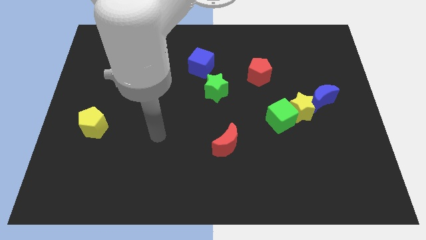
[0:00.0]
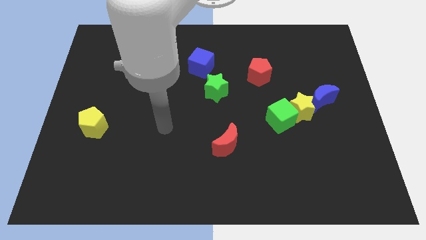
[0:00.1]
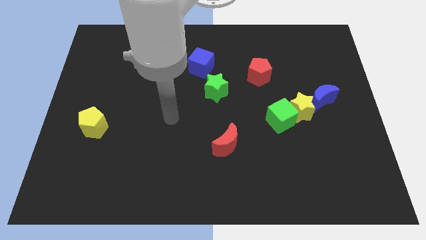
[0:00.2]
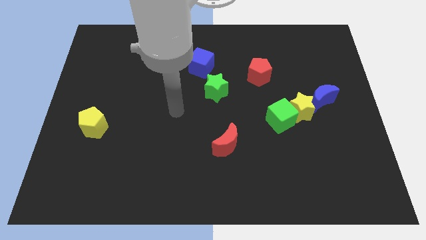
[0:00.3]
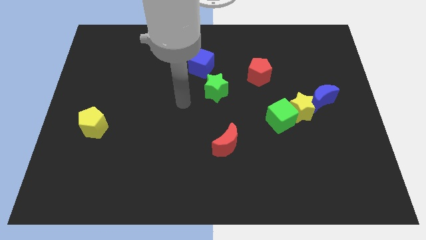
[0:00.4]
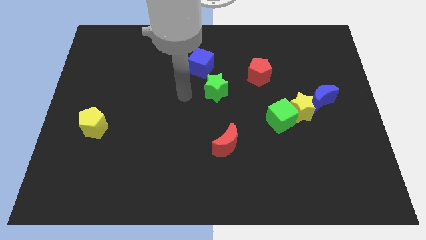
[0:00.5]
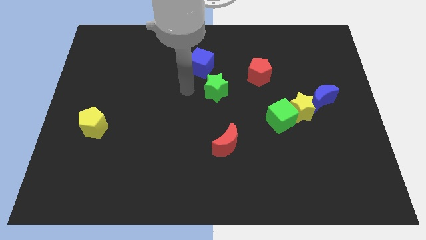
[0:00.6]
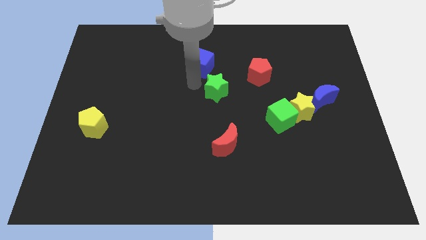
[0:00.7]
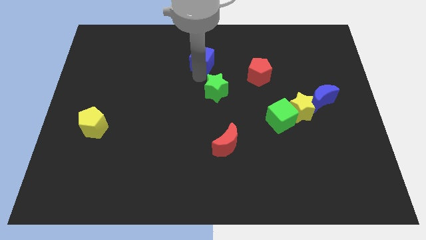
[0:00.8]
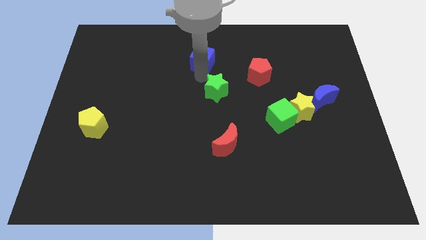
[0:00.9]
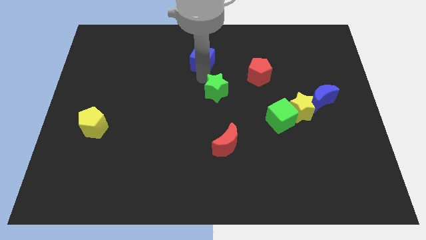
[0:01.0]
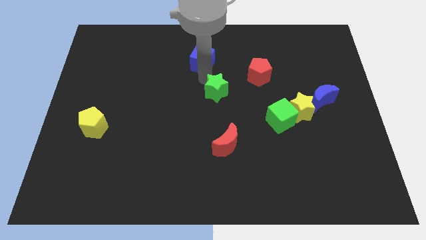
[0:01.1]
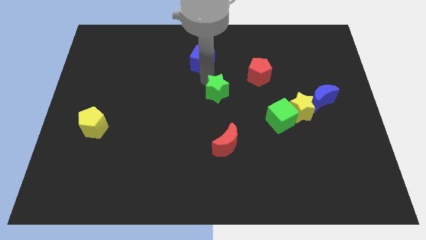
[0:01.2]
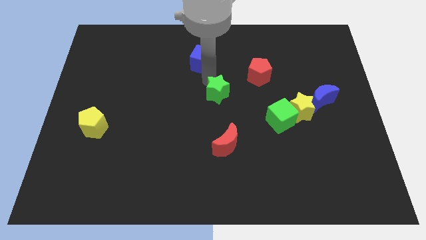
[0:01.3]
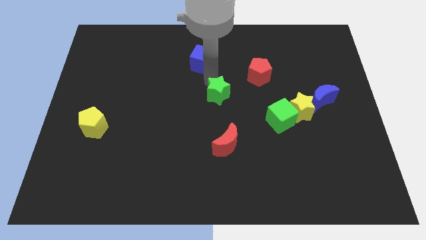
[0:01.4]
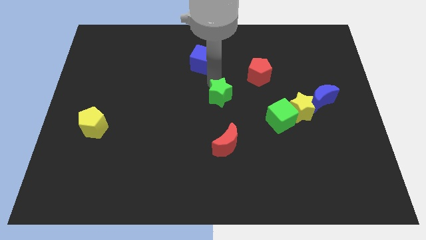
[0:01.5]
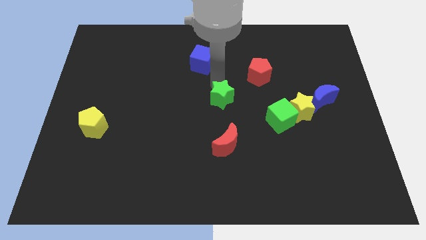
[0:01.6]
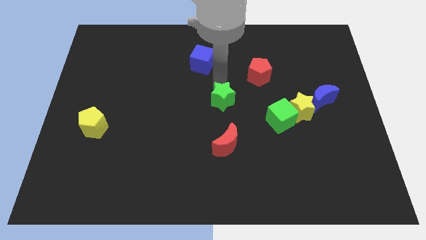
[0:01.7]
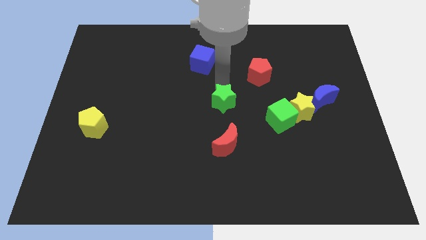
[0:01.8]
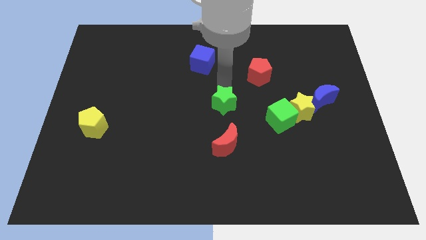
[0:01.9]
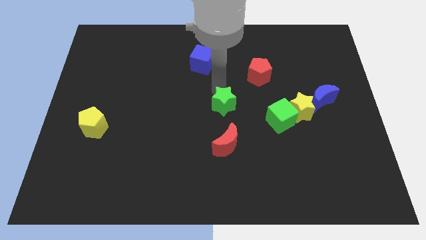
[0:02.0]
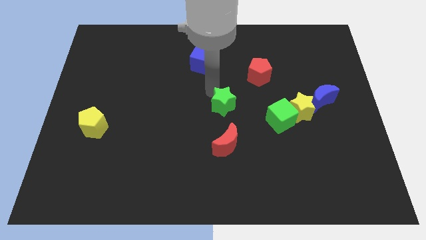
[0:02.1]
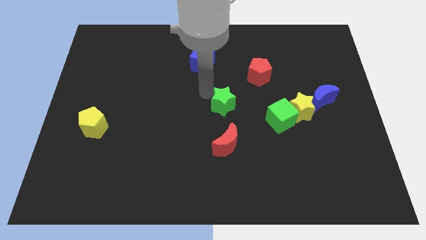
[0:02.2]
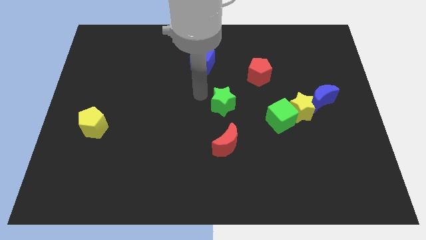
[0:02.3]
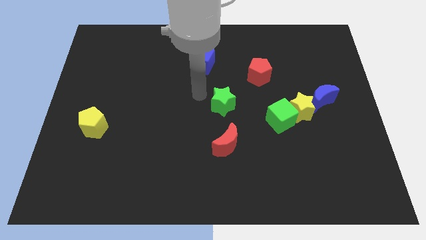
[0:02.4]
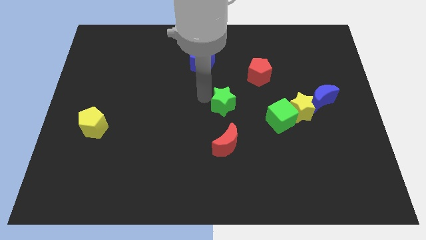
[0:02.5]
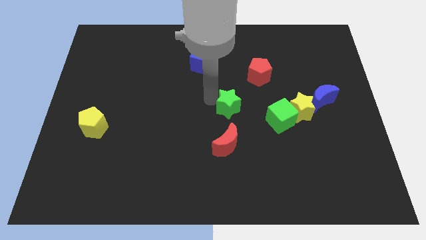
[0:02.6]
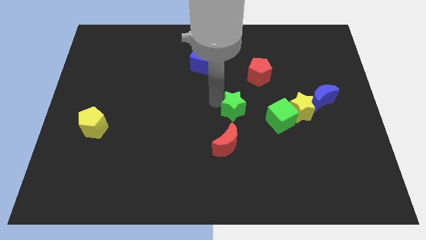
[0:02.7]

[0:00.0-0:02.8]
slightly push the green star downwards and to the right

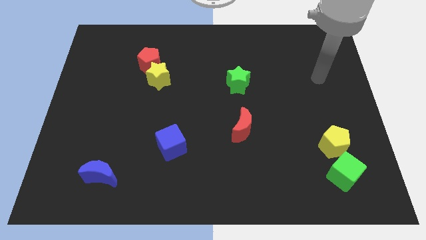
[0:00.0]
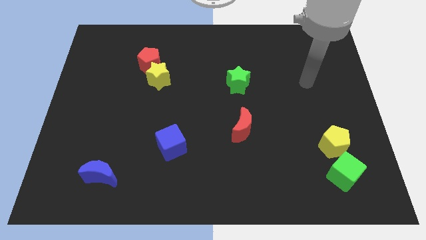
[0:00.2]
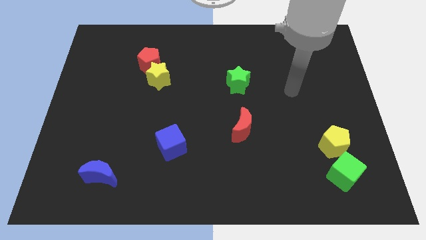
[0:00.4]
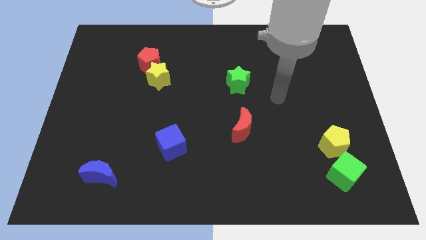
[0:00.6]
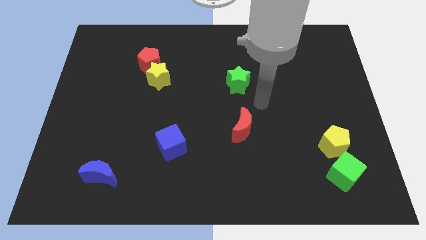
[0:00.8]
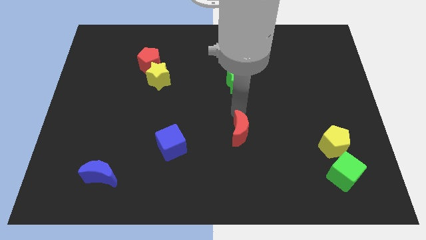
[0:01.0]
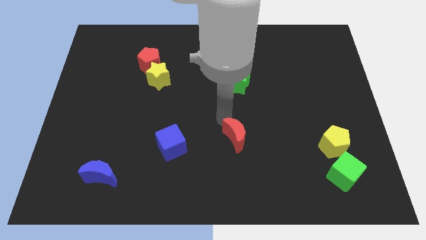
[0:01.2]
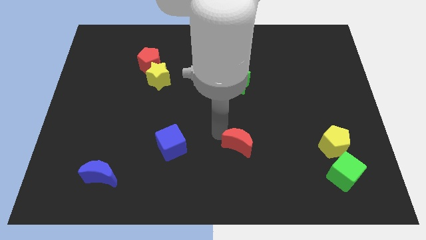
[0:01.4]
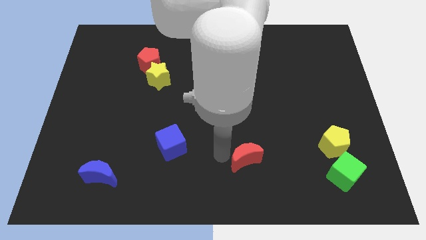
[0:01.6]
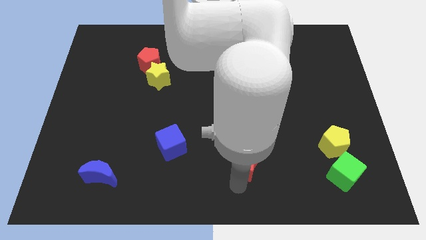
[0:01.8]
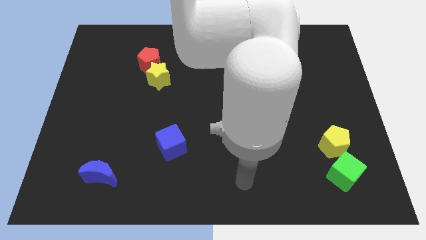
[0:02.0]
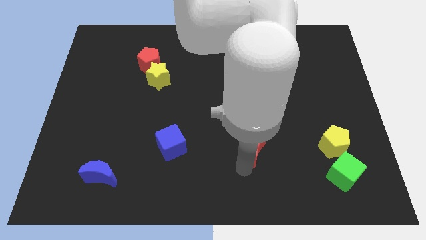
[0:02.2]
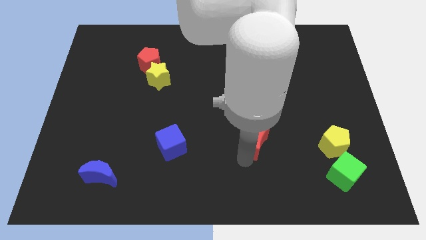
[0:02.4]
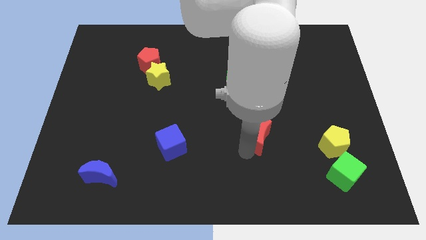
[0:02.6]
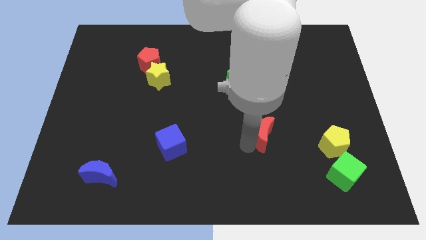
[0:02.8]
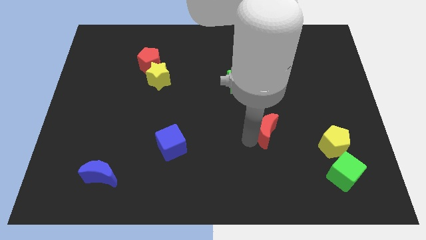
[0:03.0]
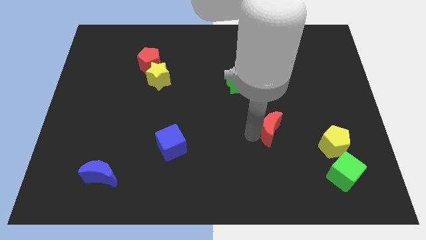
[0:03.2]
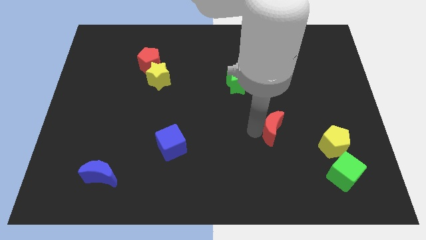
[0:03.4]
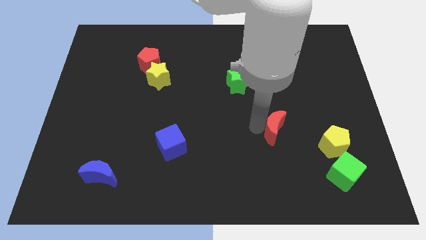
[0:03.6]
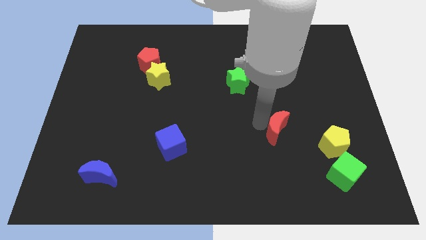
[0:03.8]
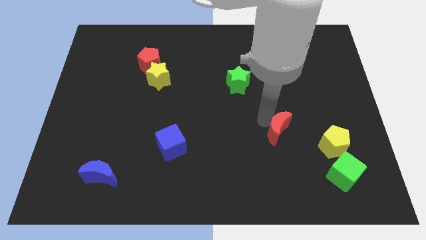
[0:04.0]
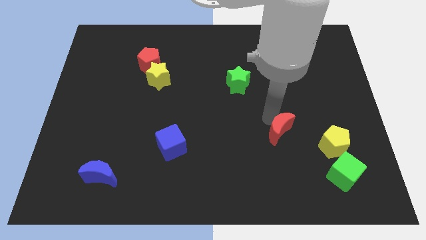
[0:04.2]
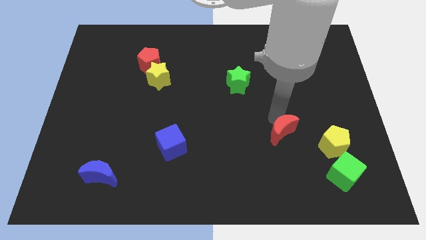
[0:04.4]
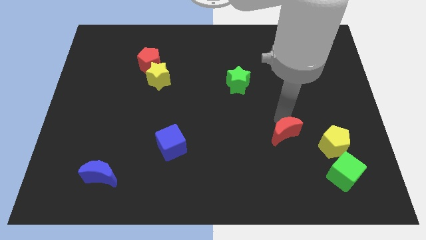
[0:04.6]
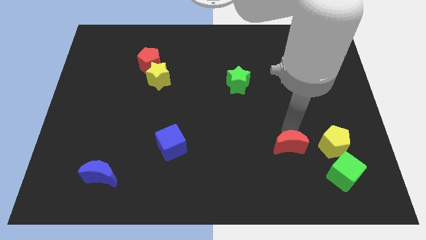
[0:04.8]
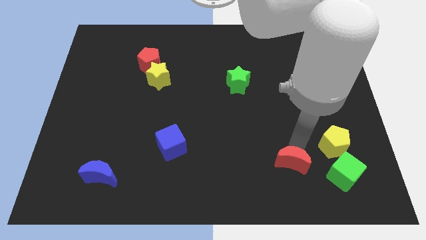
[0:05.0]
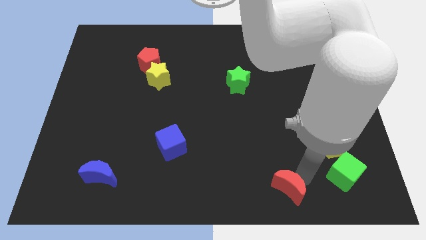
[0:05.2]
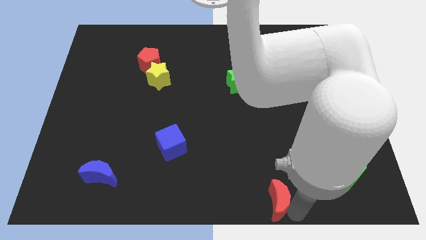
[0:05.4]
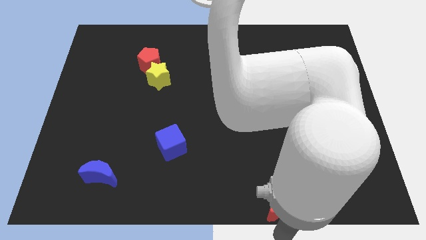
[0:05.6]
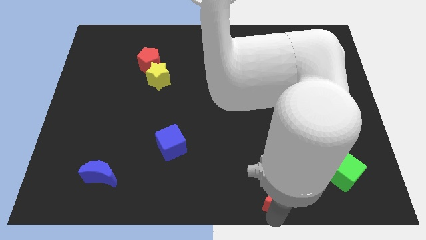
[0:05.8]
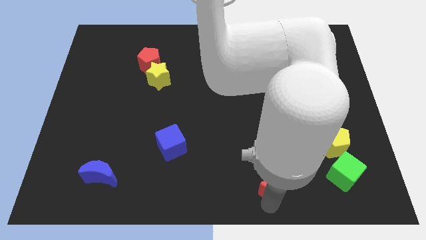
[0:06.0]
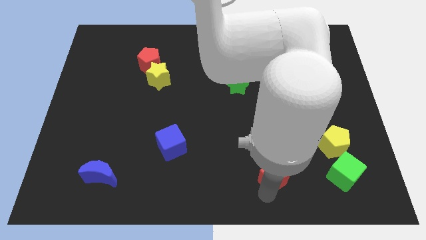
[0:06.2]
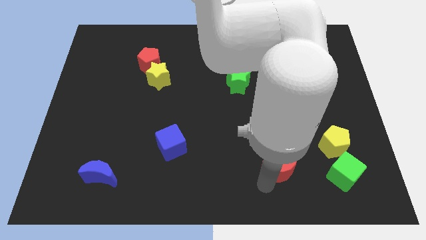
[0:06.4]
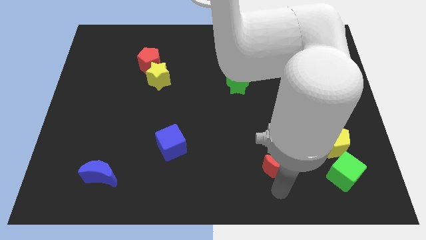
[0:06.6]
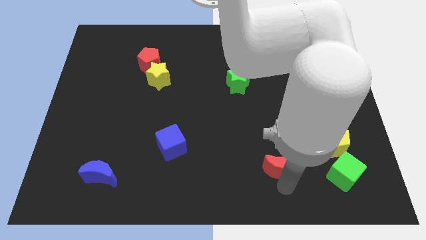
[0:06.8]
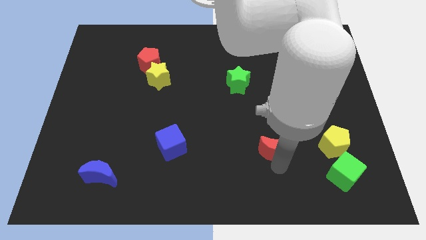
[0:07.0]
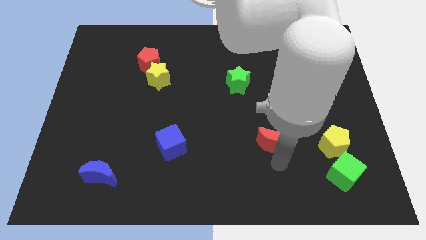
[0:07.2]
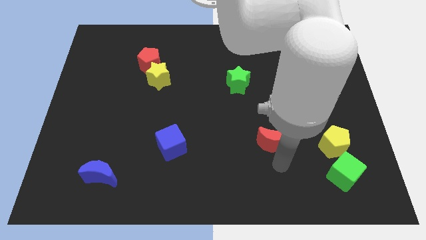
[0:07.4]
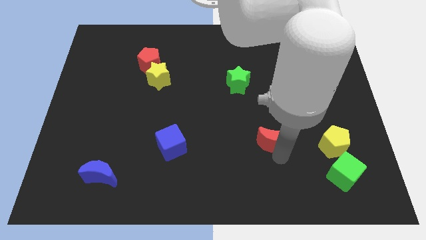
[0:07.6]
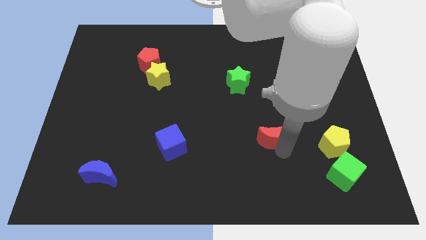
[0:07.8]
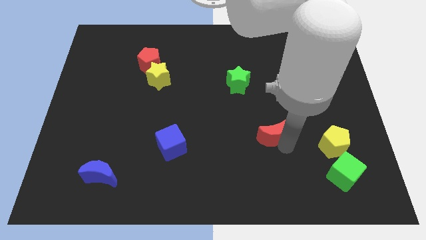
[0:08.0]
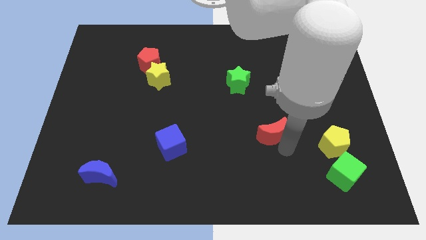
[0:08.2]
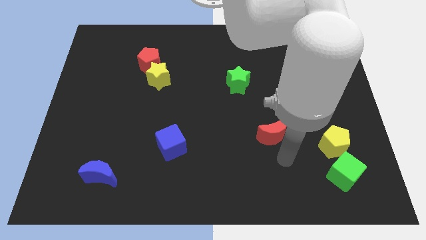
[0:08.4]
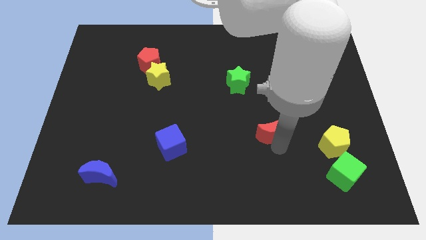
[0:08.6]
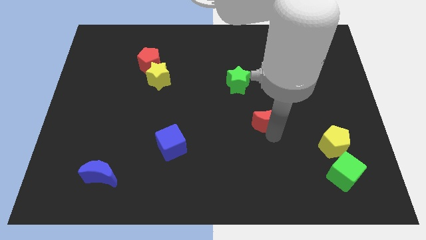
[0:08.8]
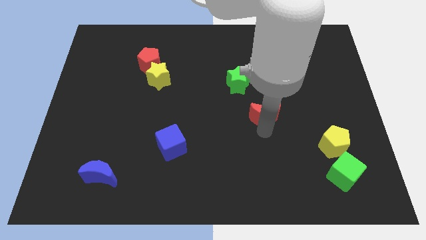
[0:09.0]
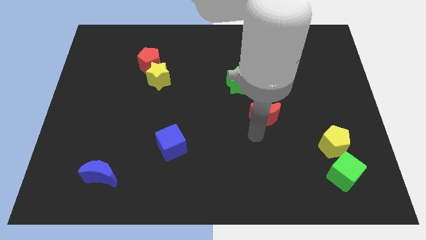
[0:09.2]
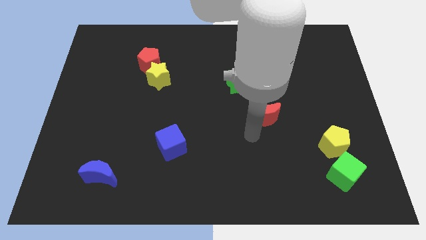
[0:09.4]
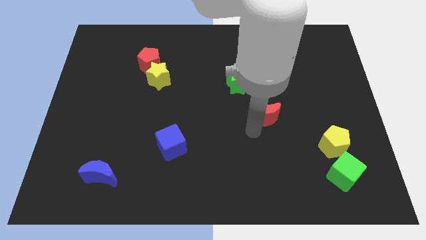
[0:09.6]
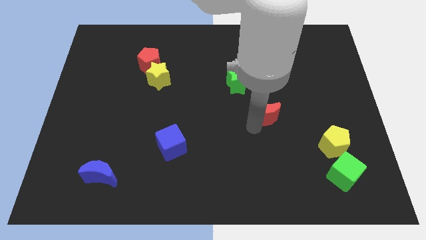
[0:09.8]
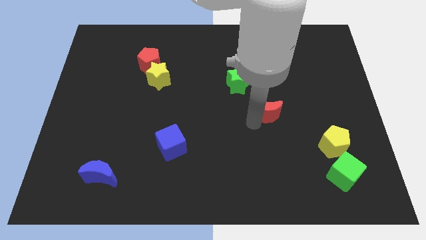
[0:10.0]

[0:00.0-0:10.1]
slightly move the red moon upwards and then to the right
